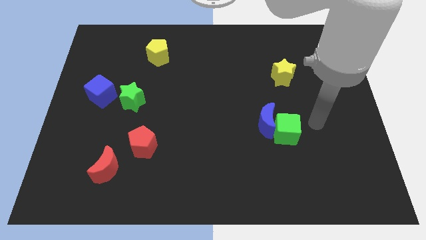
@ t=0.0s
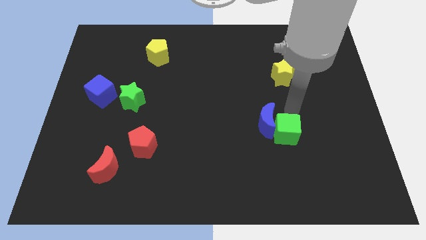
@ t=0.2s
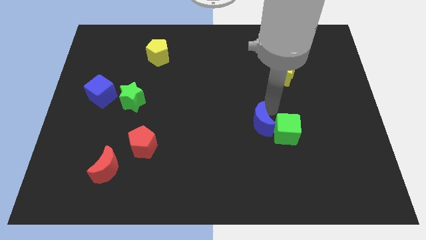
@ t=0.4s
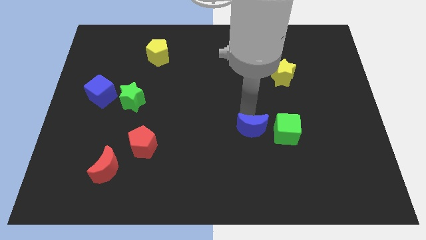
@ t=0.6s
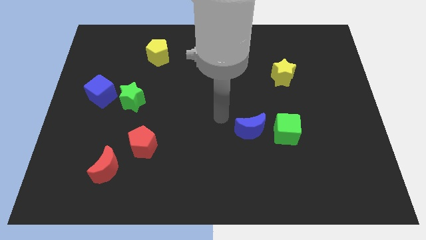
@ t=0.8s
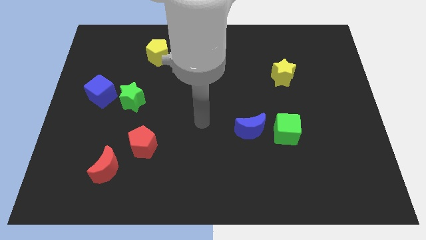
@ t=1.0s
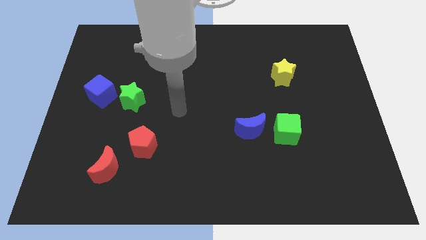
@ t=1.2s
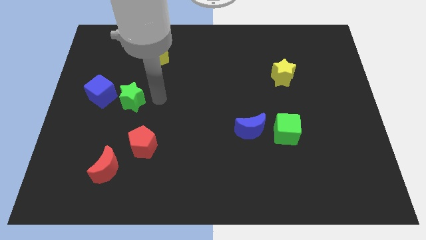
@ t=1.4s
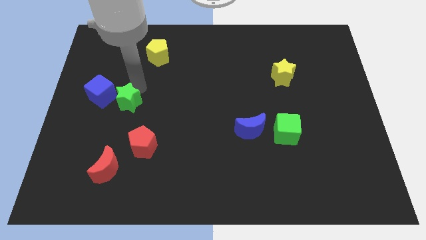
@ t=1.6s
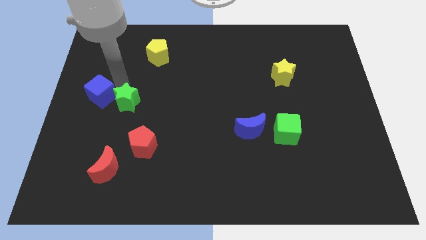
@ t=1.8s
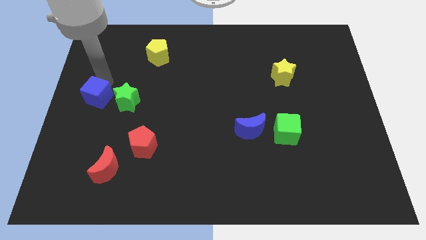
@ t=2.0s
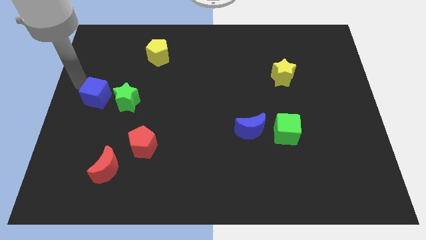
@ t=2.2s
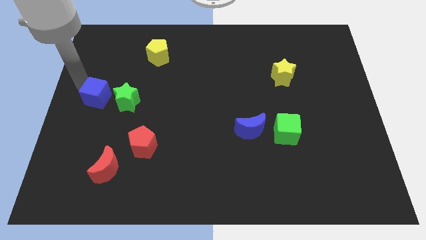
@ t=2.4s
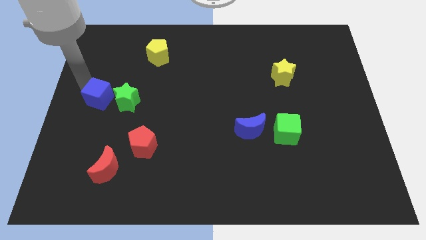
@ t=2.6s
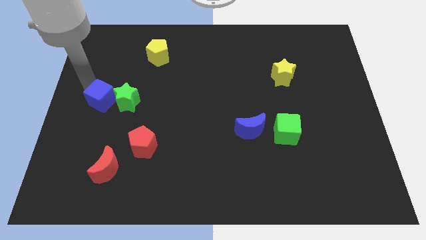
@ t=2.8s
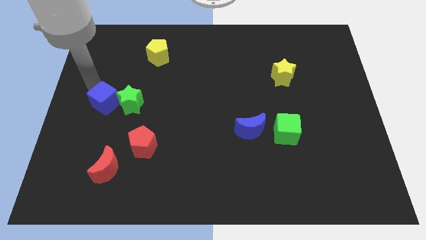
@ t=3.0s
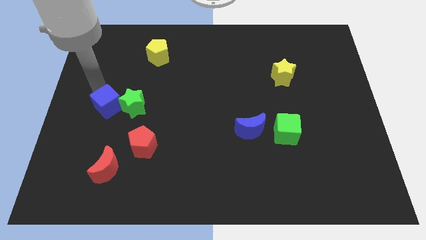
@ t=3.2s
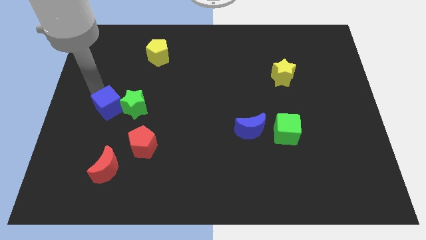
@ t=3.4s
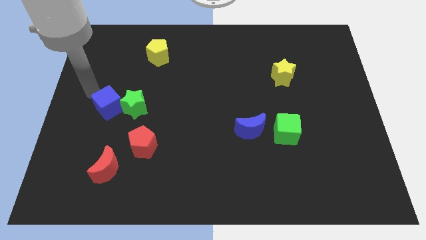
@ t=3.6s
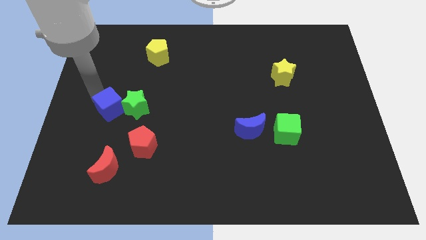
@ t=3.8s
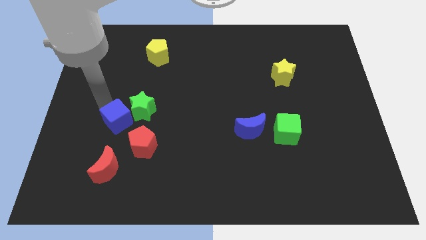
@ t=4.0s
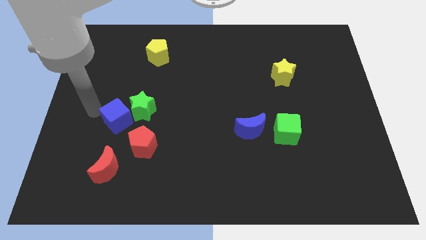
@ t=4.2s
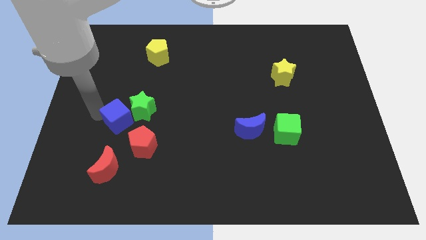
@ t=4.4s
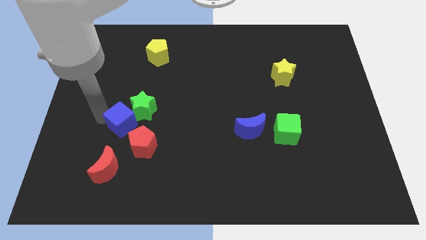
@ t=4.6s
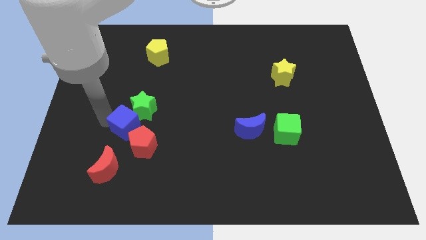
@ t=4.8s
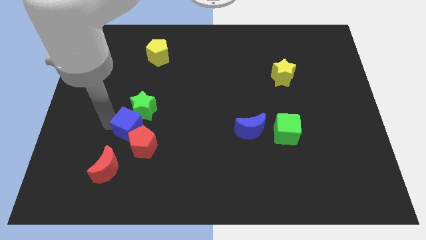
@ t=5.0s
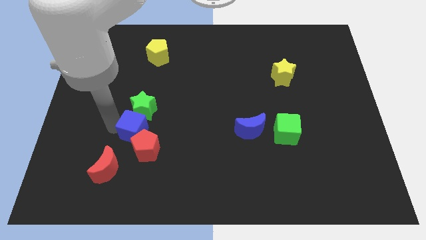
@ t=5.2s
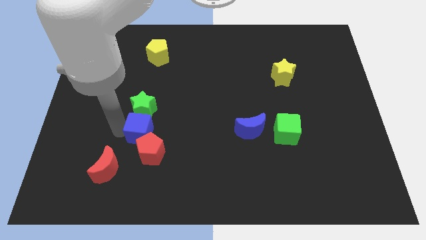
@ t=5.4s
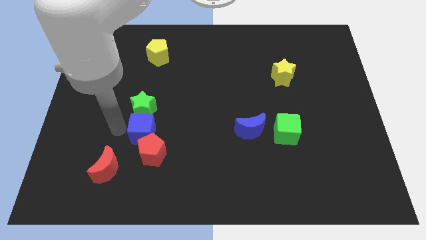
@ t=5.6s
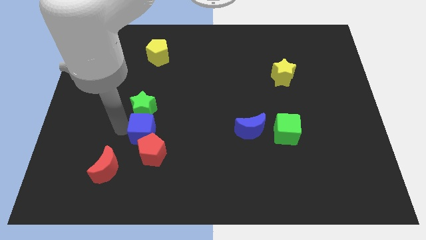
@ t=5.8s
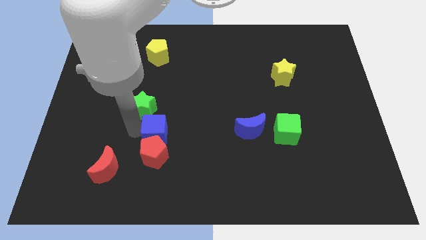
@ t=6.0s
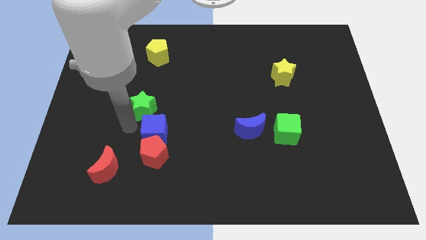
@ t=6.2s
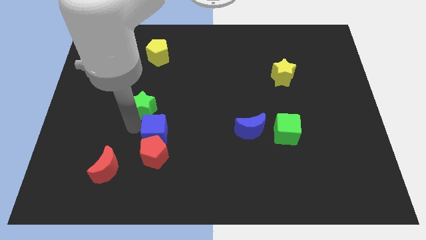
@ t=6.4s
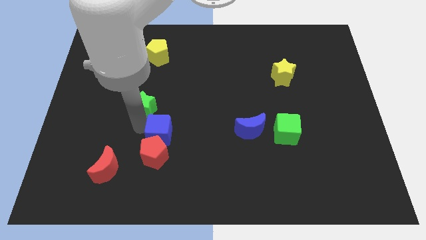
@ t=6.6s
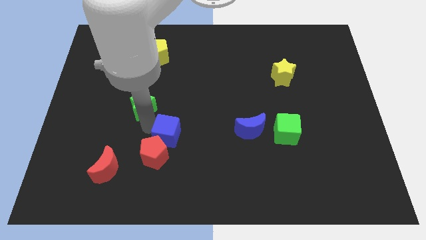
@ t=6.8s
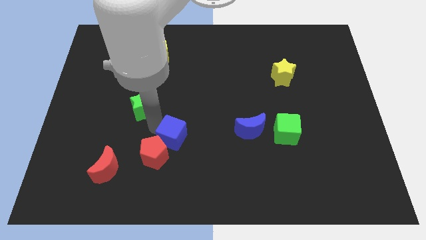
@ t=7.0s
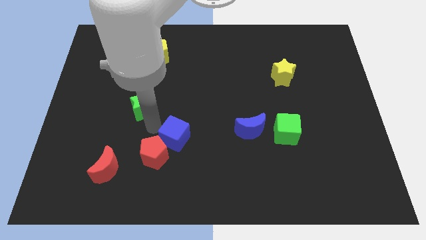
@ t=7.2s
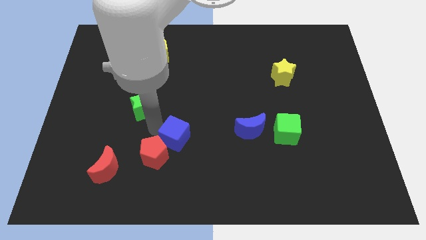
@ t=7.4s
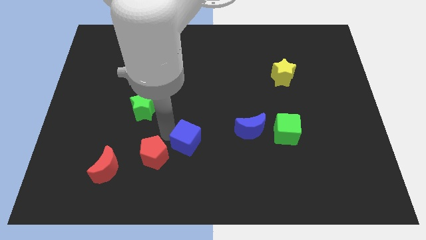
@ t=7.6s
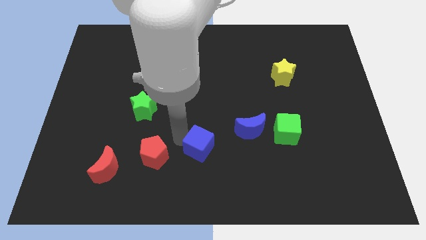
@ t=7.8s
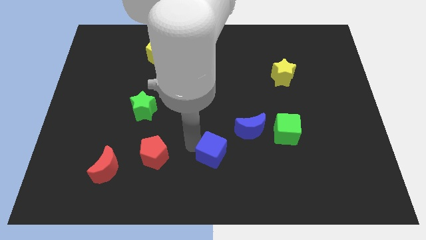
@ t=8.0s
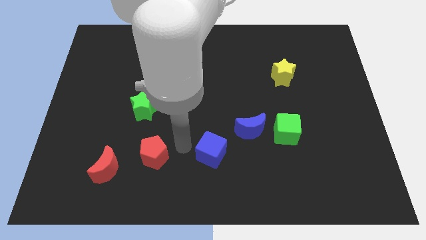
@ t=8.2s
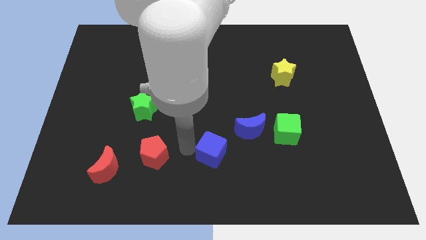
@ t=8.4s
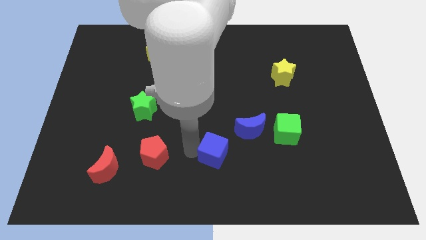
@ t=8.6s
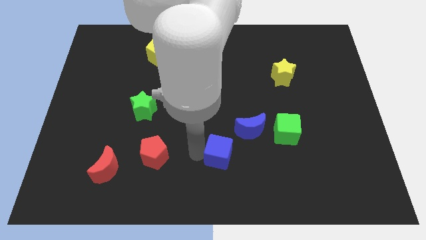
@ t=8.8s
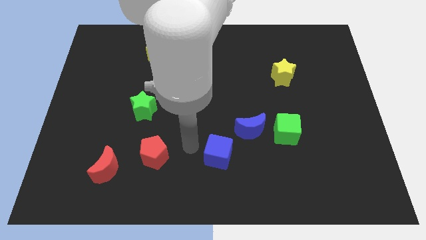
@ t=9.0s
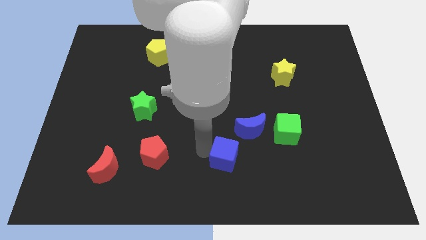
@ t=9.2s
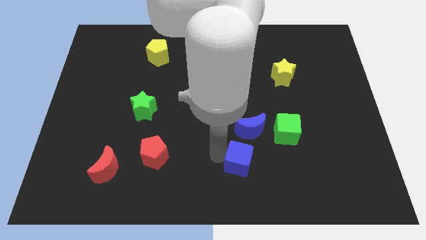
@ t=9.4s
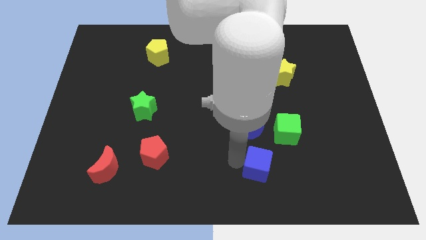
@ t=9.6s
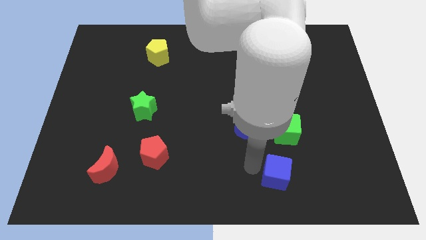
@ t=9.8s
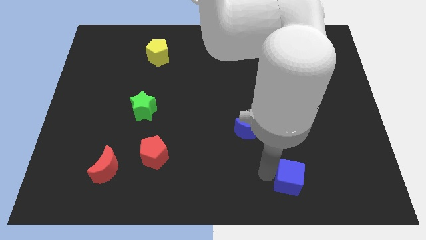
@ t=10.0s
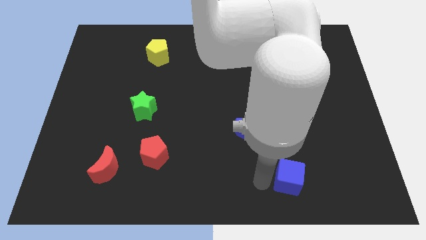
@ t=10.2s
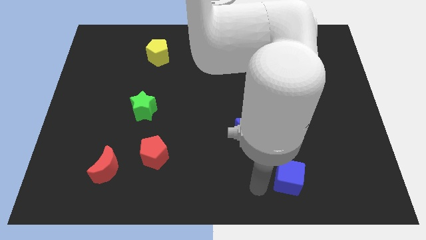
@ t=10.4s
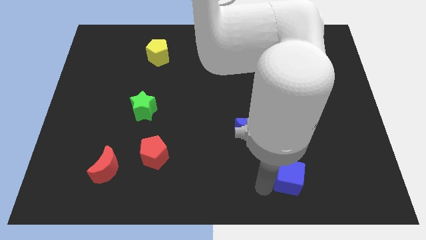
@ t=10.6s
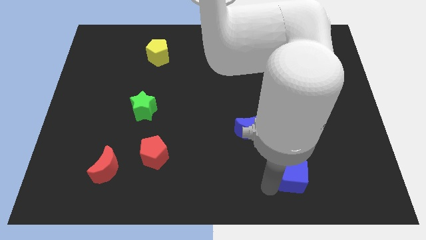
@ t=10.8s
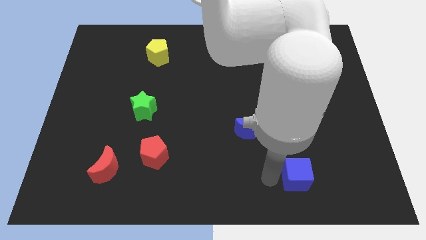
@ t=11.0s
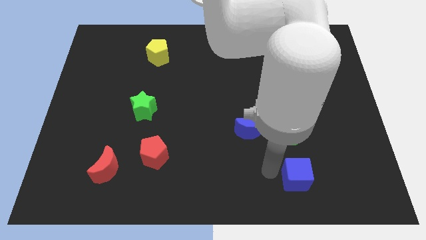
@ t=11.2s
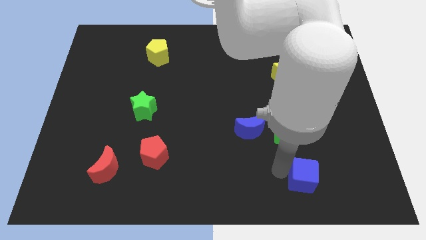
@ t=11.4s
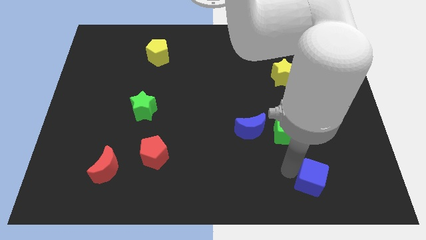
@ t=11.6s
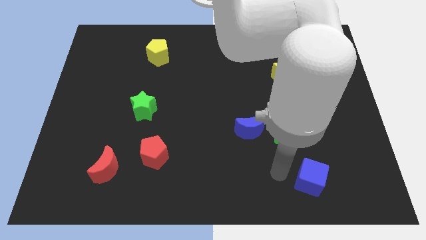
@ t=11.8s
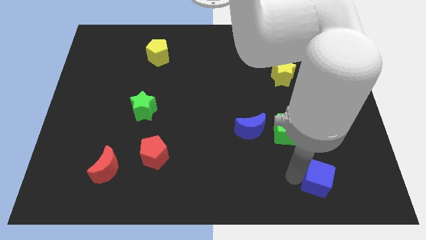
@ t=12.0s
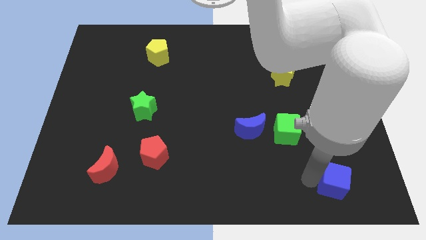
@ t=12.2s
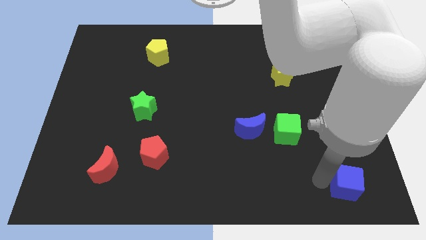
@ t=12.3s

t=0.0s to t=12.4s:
move the blue cube to the lower right corner

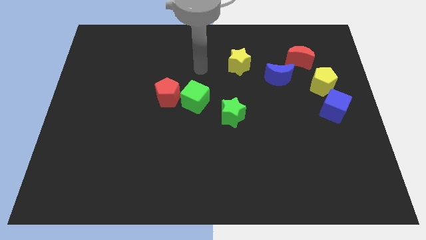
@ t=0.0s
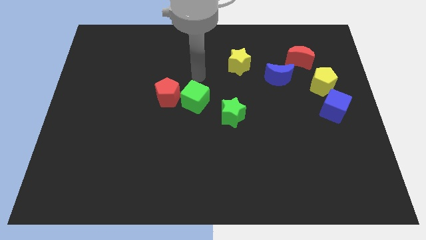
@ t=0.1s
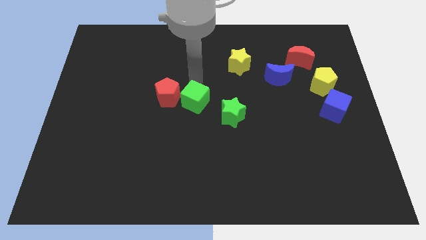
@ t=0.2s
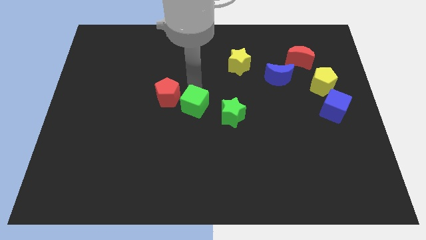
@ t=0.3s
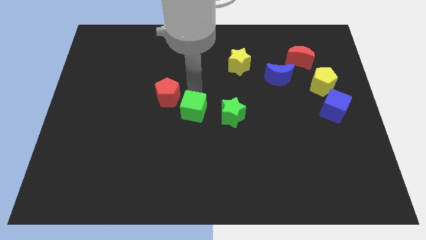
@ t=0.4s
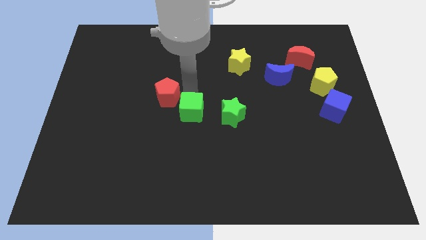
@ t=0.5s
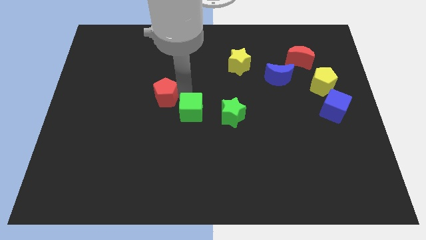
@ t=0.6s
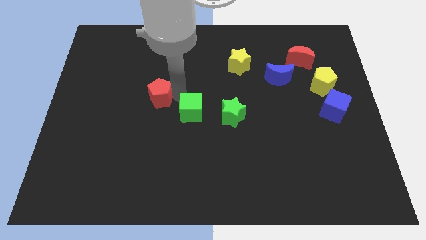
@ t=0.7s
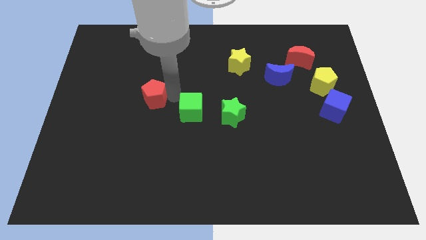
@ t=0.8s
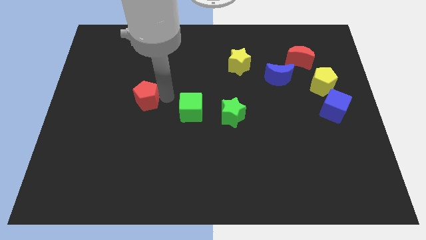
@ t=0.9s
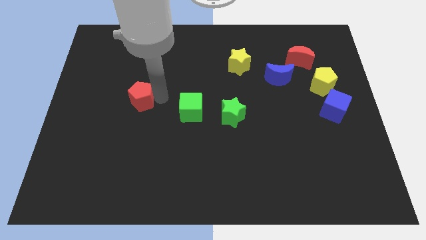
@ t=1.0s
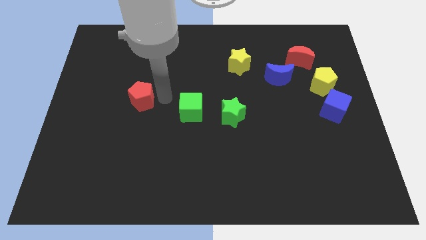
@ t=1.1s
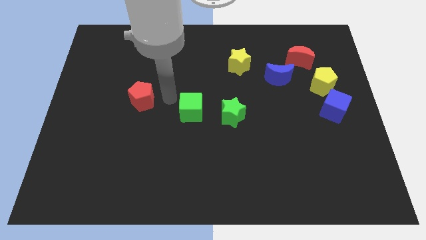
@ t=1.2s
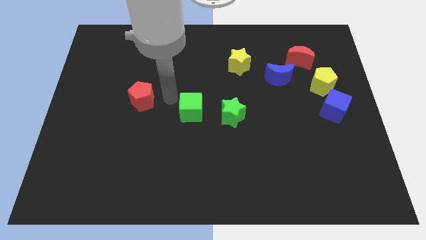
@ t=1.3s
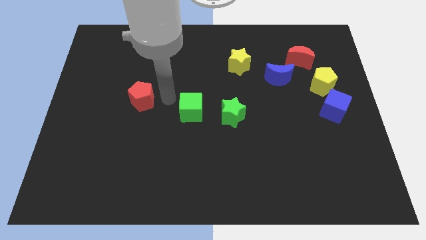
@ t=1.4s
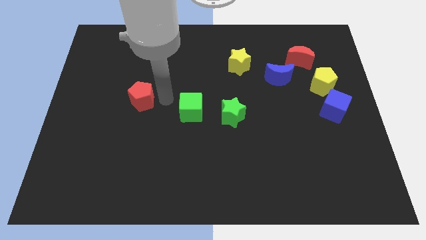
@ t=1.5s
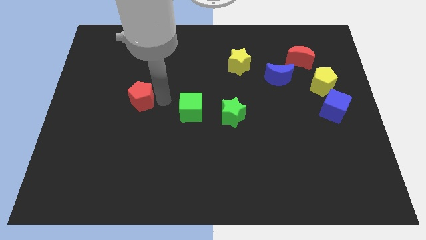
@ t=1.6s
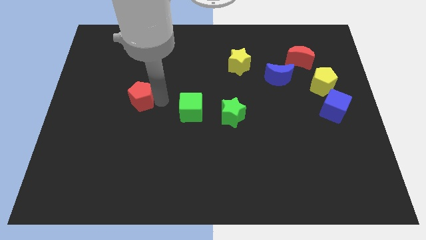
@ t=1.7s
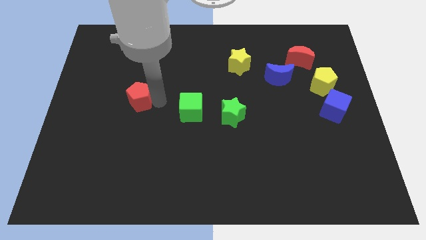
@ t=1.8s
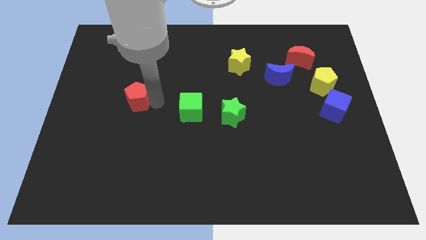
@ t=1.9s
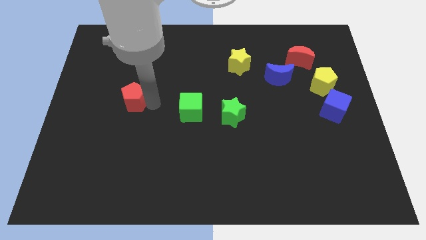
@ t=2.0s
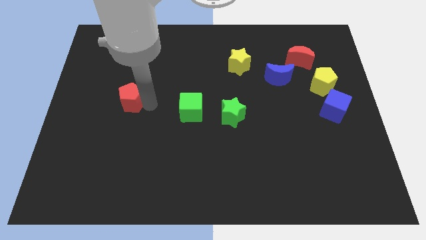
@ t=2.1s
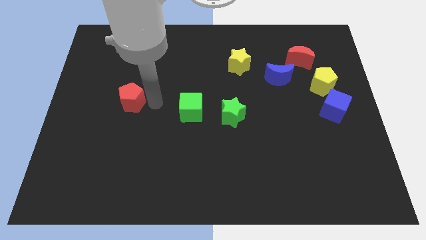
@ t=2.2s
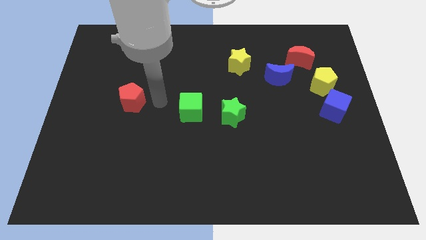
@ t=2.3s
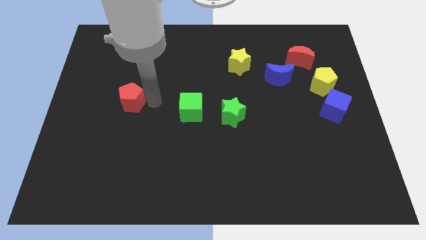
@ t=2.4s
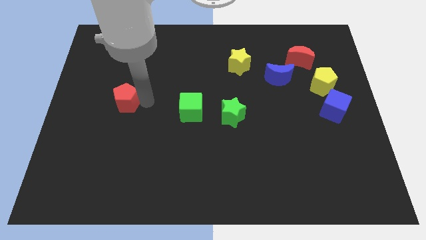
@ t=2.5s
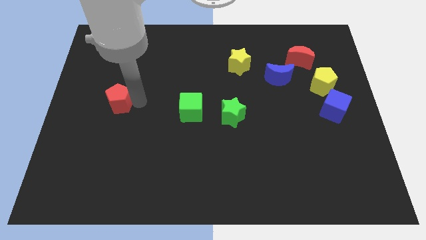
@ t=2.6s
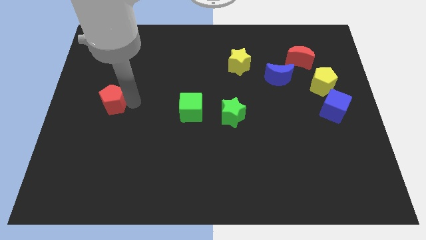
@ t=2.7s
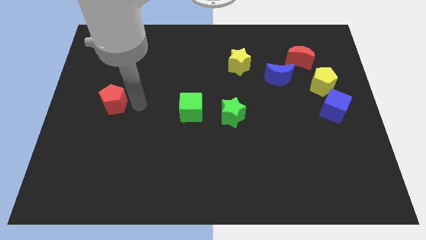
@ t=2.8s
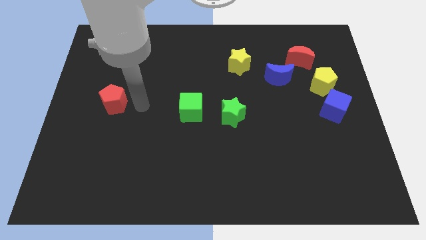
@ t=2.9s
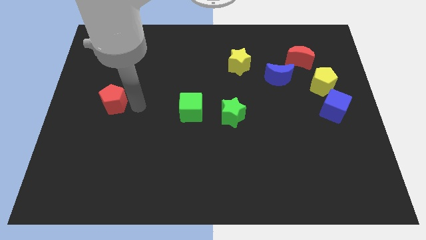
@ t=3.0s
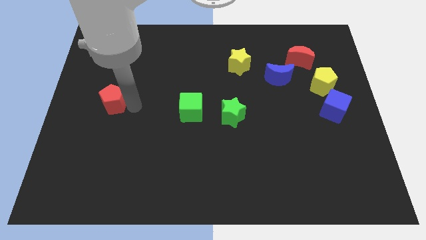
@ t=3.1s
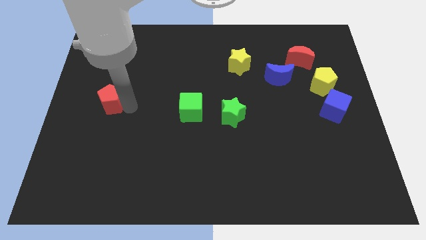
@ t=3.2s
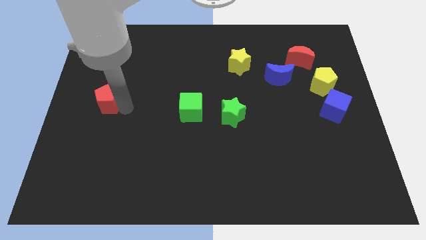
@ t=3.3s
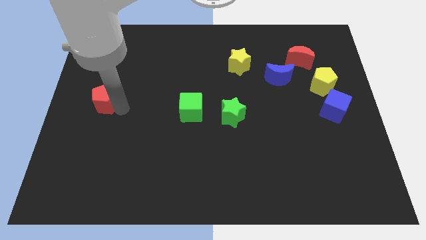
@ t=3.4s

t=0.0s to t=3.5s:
put the red pentagon to the center left
